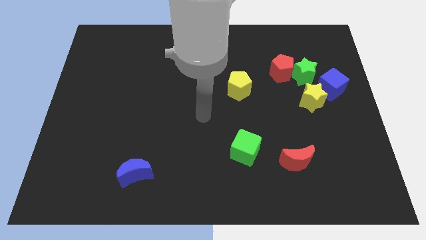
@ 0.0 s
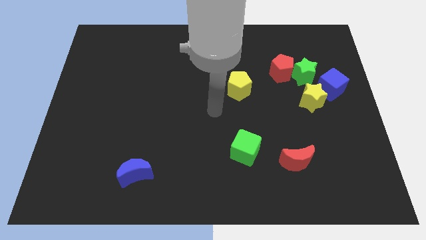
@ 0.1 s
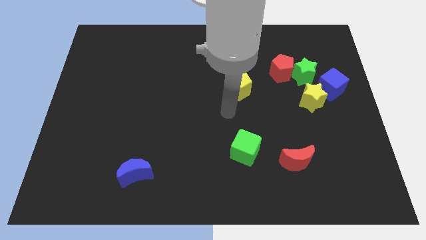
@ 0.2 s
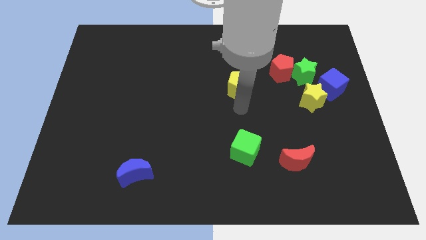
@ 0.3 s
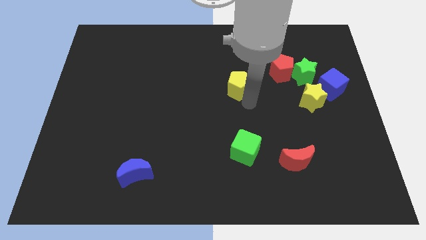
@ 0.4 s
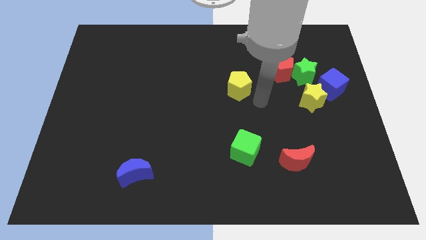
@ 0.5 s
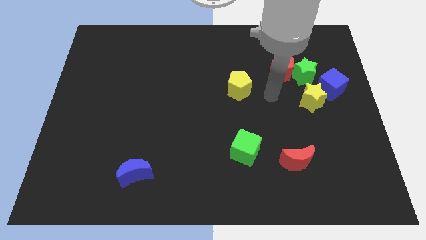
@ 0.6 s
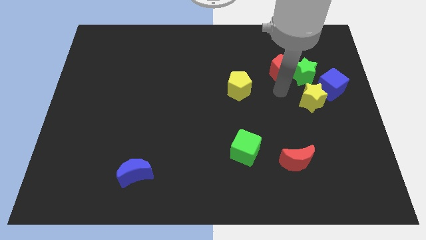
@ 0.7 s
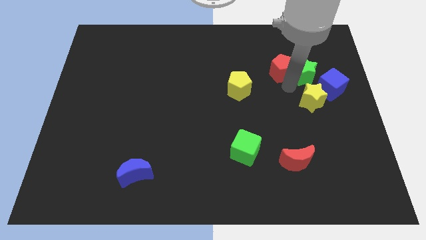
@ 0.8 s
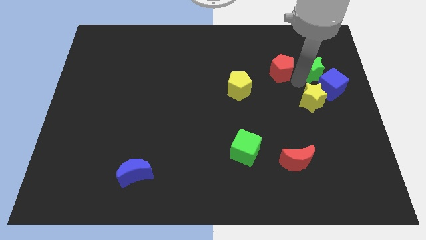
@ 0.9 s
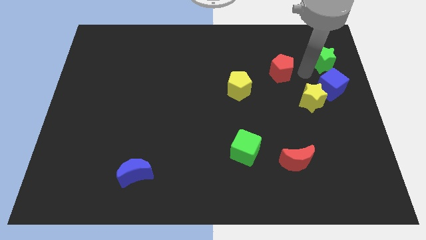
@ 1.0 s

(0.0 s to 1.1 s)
pull the red pentagon apart from the green star

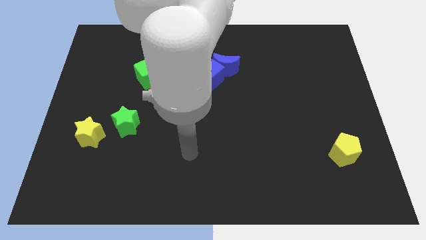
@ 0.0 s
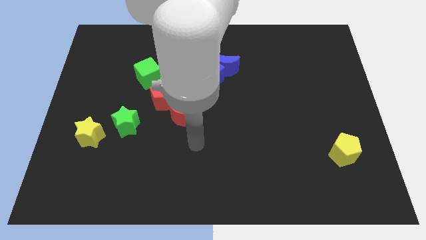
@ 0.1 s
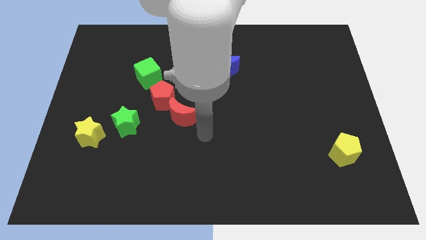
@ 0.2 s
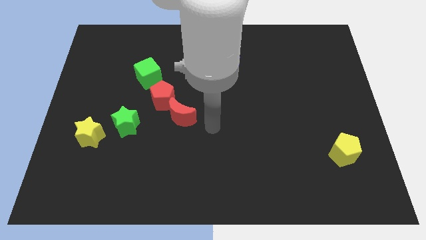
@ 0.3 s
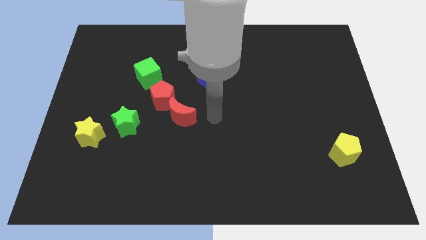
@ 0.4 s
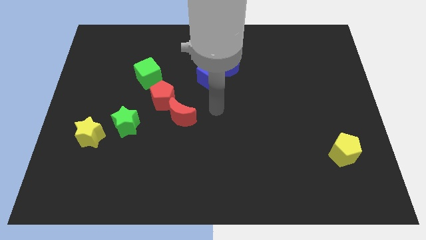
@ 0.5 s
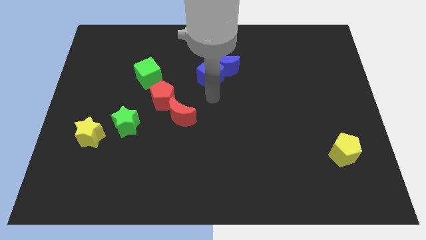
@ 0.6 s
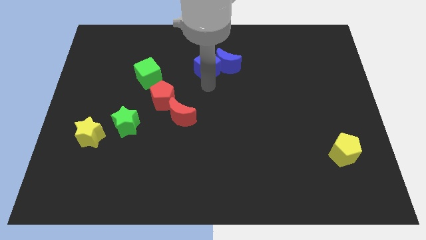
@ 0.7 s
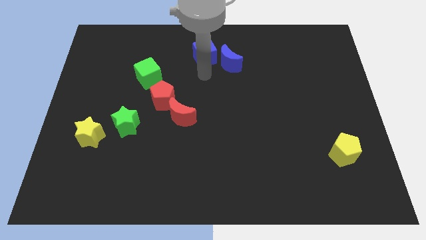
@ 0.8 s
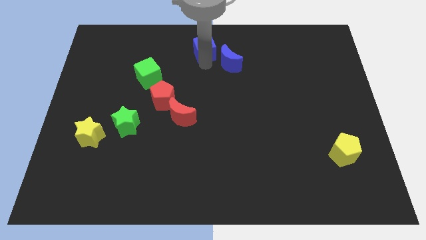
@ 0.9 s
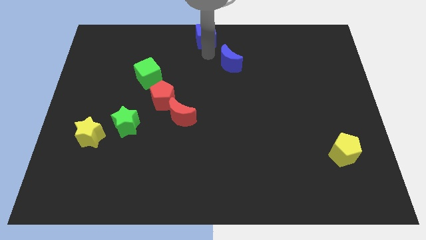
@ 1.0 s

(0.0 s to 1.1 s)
separate the blue moon from the blue cube

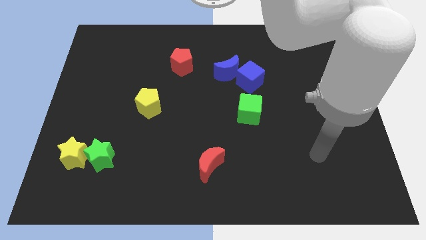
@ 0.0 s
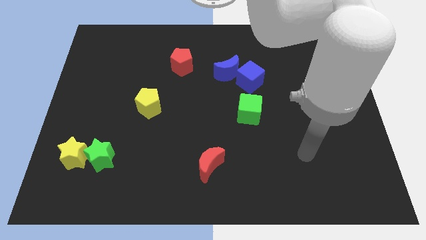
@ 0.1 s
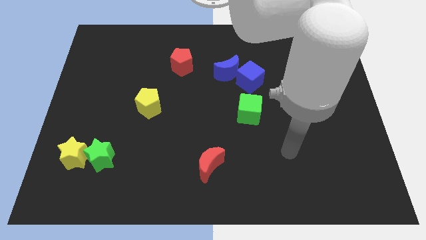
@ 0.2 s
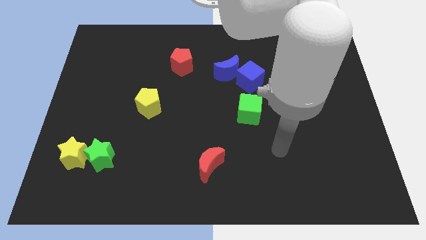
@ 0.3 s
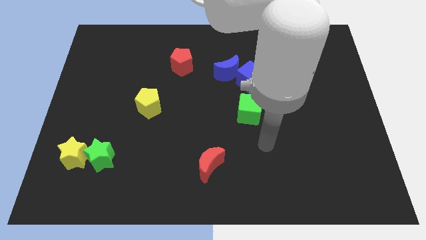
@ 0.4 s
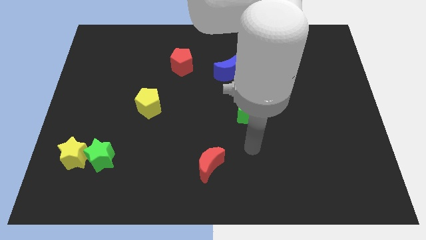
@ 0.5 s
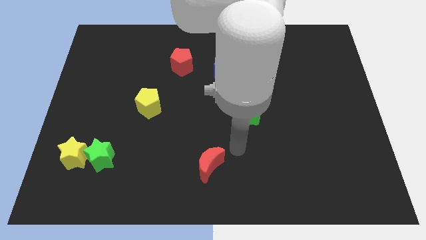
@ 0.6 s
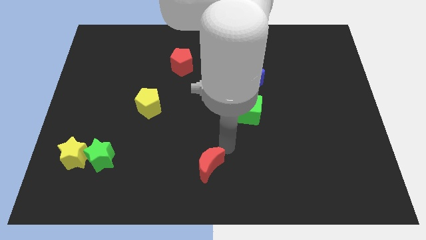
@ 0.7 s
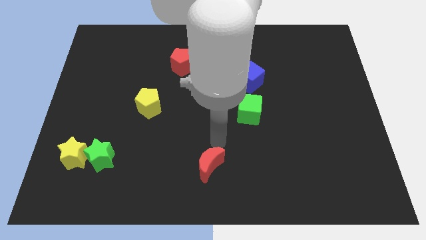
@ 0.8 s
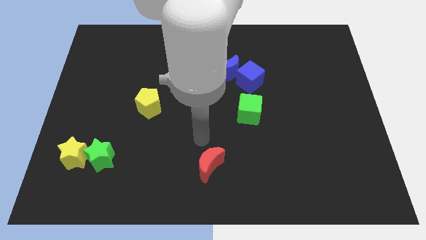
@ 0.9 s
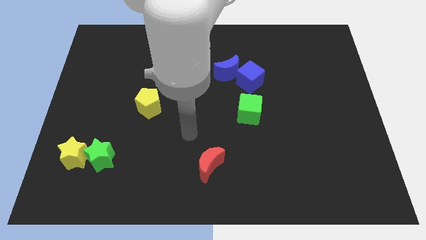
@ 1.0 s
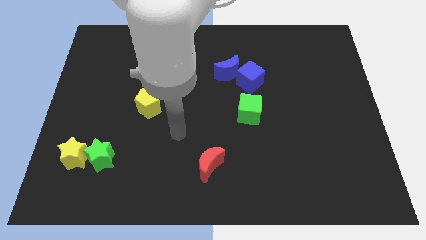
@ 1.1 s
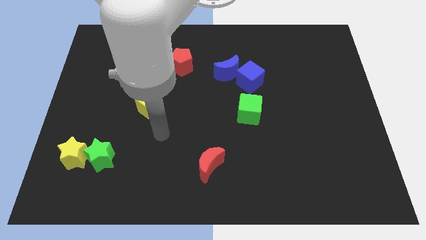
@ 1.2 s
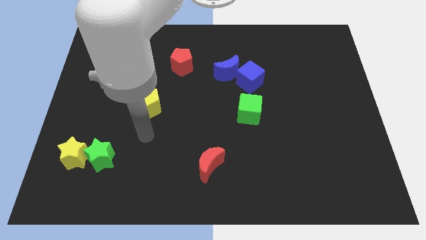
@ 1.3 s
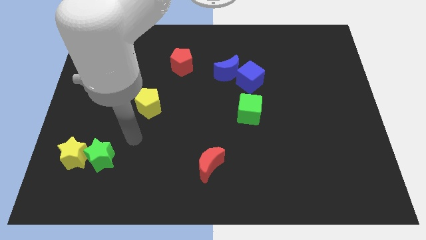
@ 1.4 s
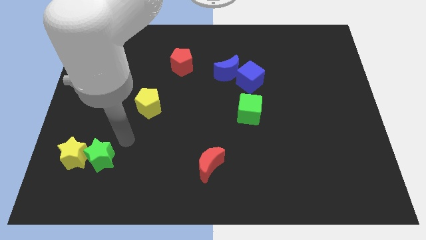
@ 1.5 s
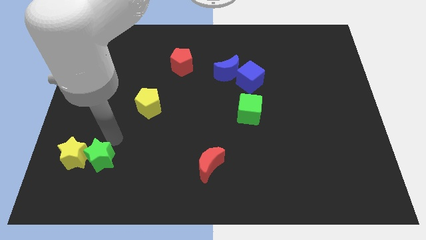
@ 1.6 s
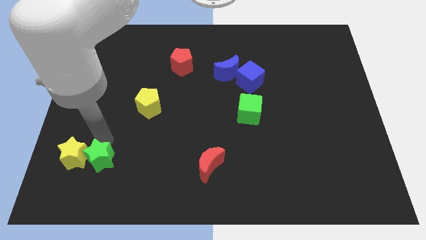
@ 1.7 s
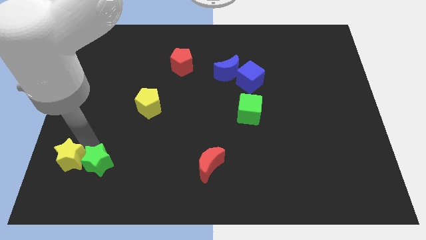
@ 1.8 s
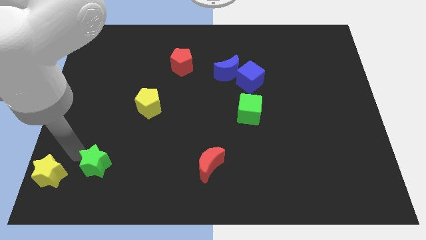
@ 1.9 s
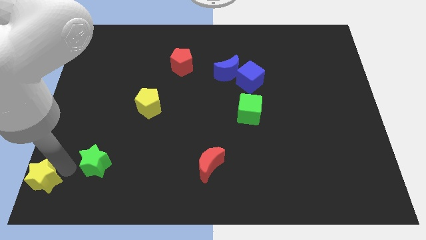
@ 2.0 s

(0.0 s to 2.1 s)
pull the green star apart from the yellow star

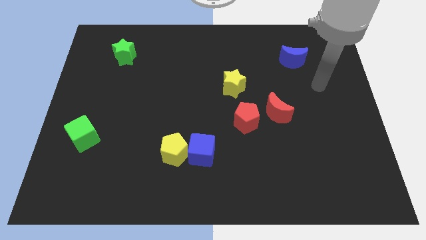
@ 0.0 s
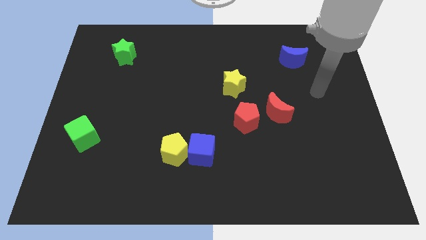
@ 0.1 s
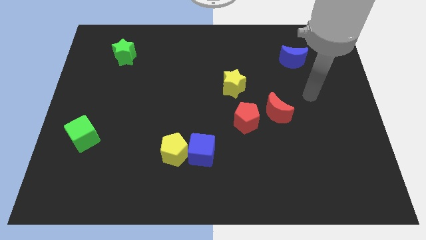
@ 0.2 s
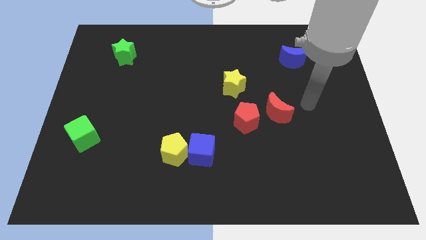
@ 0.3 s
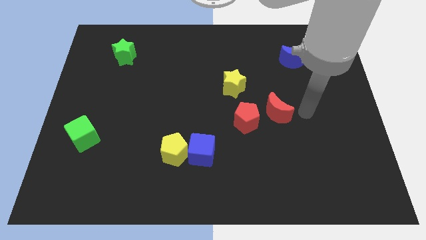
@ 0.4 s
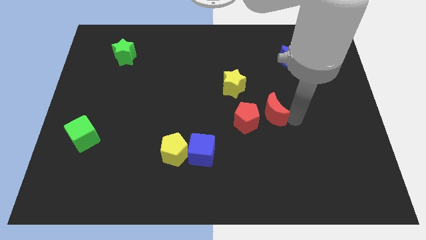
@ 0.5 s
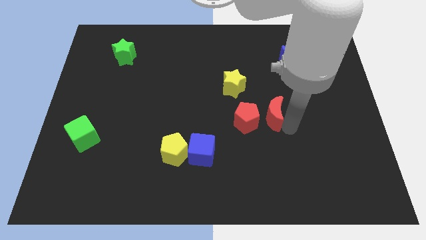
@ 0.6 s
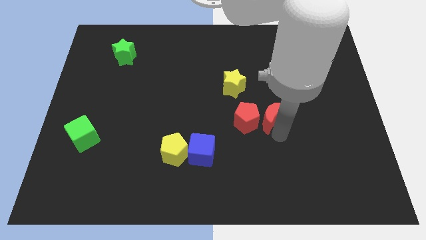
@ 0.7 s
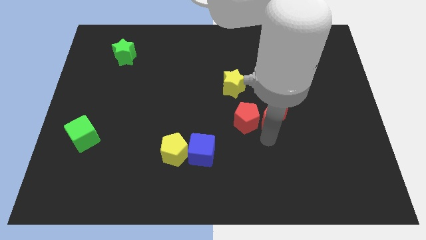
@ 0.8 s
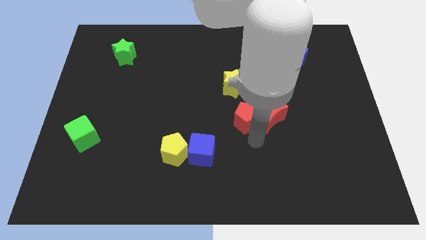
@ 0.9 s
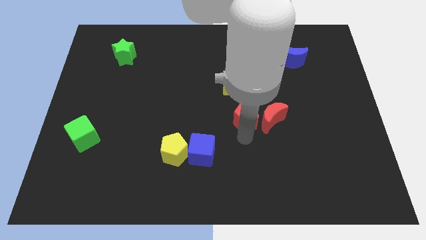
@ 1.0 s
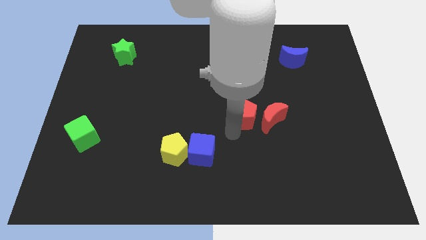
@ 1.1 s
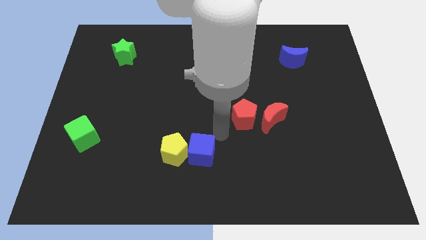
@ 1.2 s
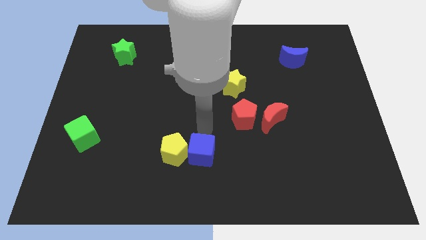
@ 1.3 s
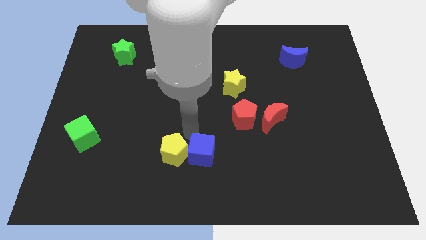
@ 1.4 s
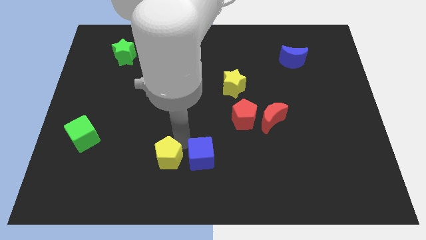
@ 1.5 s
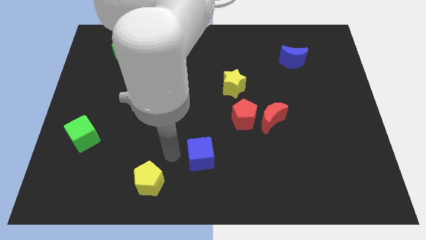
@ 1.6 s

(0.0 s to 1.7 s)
separate the blue cube from the yellow pentagon

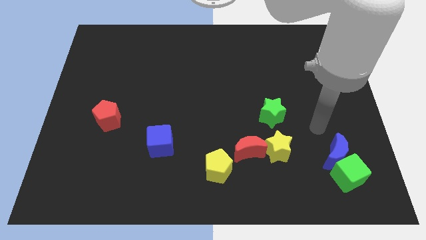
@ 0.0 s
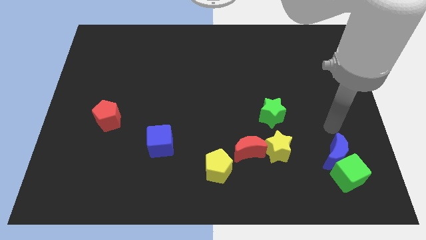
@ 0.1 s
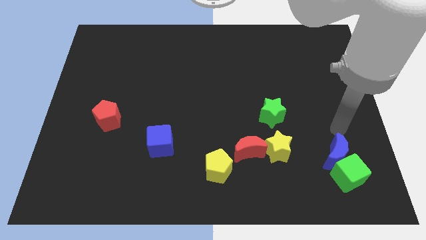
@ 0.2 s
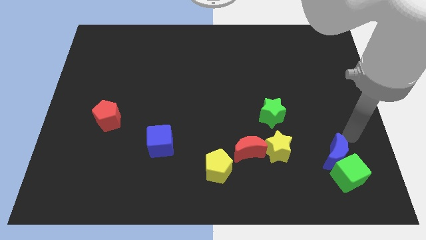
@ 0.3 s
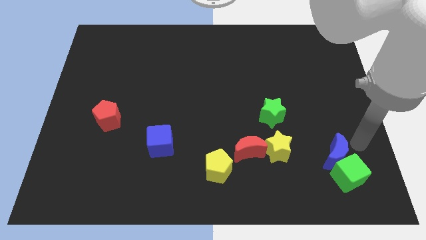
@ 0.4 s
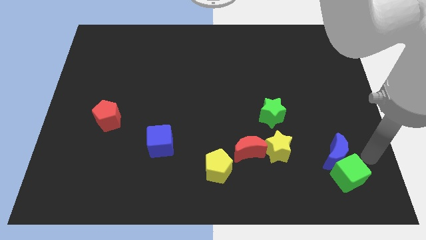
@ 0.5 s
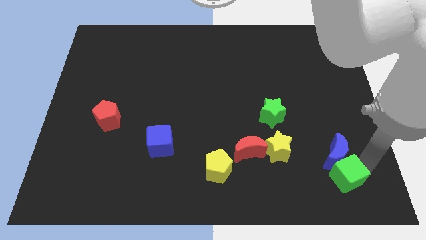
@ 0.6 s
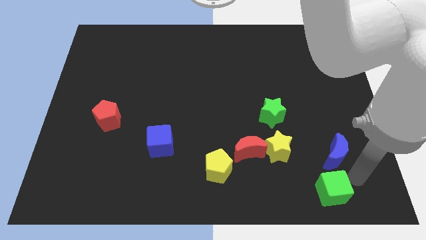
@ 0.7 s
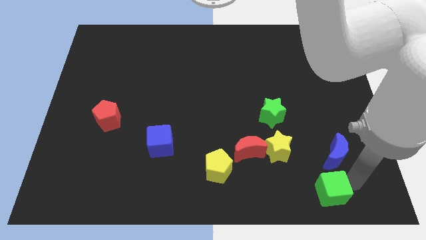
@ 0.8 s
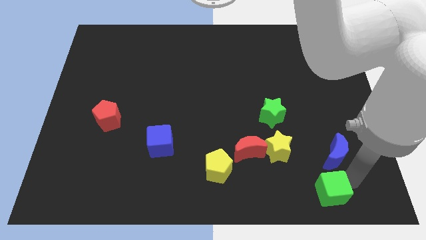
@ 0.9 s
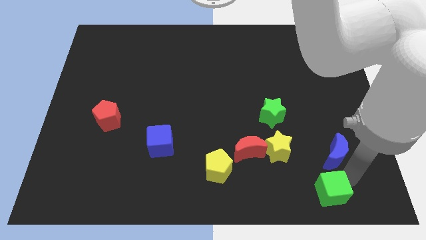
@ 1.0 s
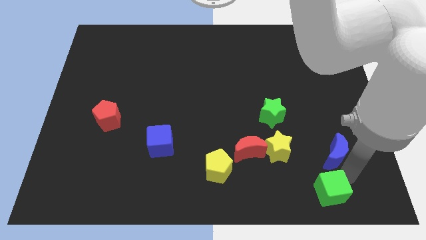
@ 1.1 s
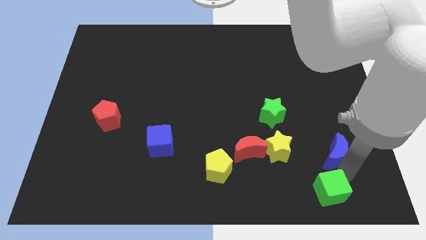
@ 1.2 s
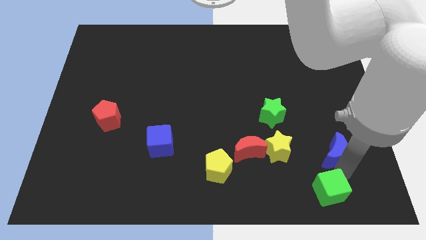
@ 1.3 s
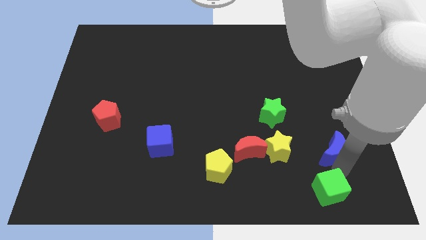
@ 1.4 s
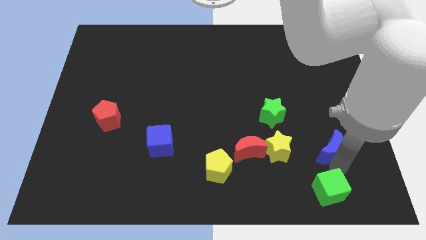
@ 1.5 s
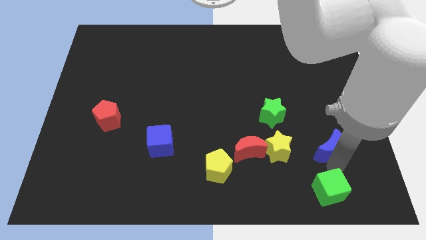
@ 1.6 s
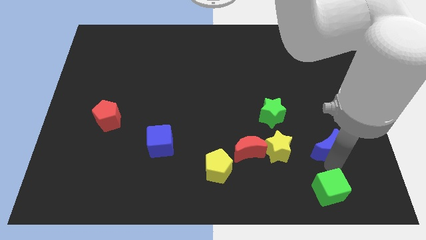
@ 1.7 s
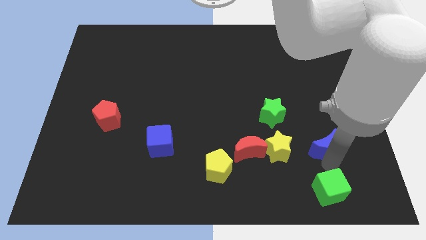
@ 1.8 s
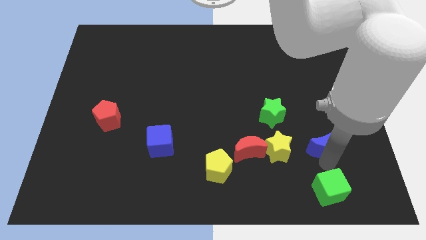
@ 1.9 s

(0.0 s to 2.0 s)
move the blue moon away from the green cube

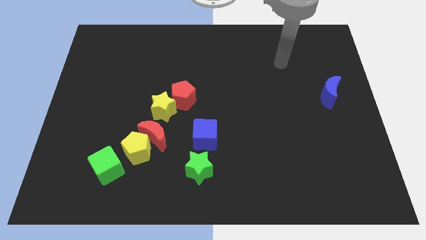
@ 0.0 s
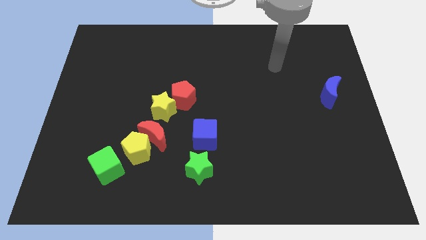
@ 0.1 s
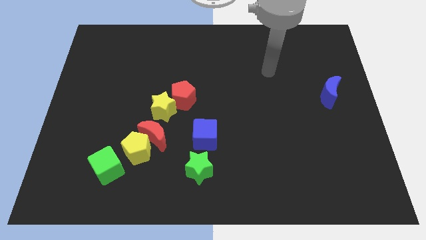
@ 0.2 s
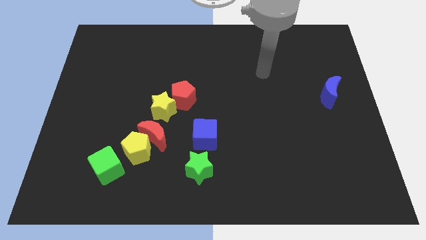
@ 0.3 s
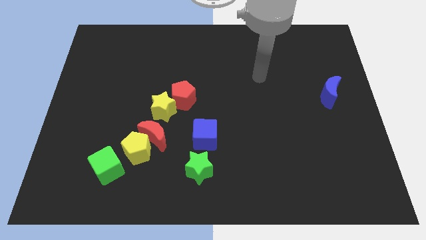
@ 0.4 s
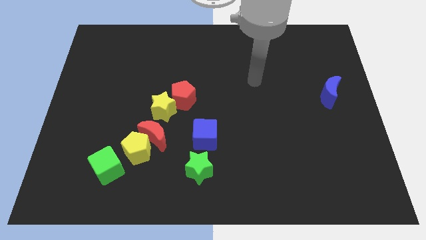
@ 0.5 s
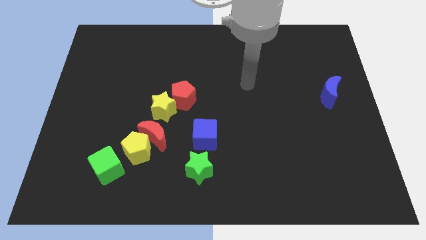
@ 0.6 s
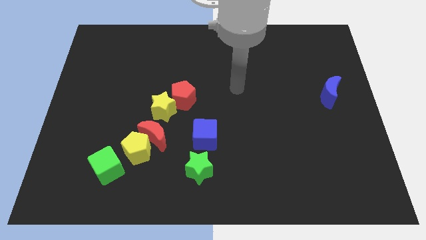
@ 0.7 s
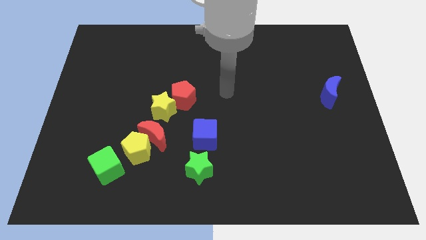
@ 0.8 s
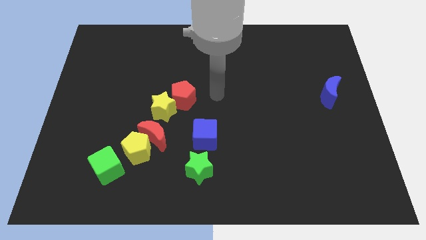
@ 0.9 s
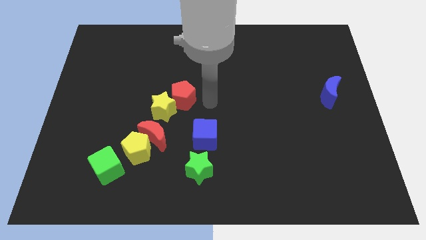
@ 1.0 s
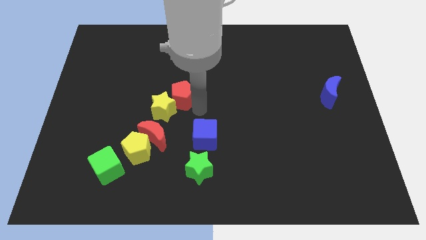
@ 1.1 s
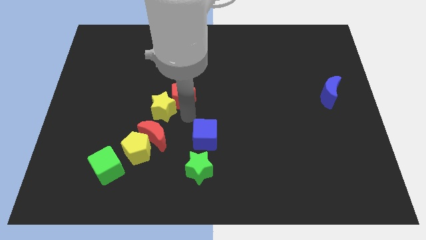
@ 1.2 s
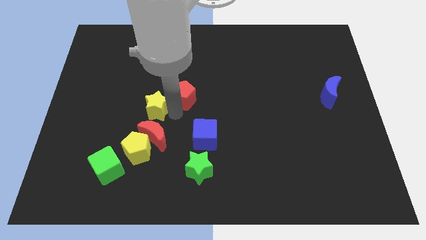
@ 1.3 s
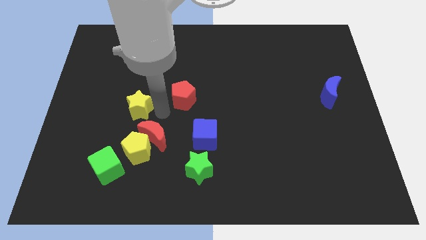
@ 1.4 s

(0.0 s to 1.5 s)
move the red pentagon away from the yellow star
